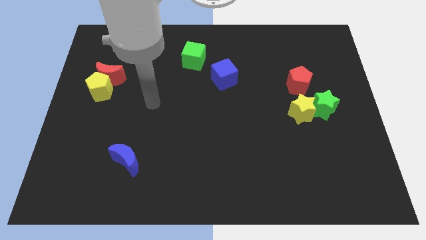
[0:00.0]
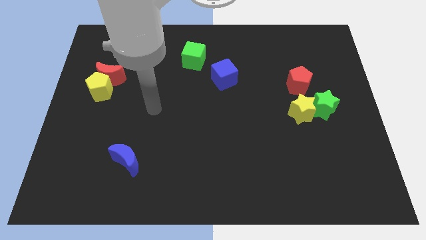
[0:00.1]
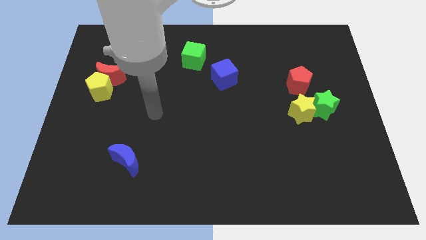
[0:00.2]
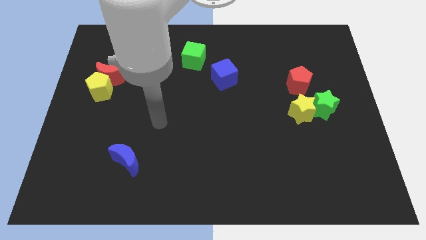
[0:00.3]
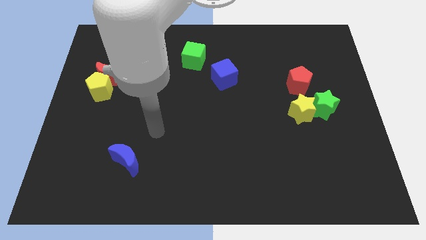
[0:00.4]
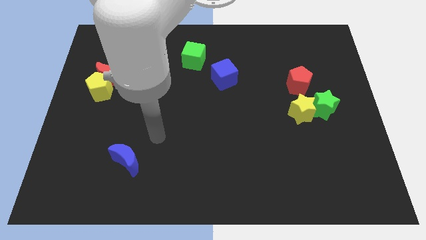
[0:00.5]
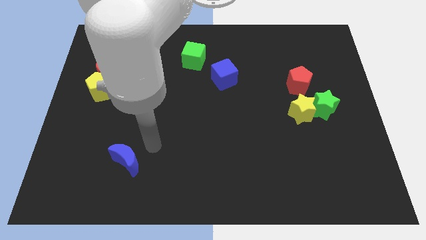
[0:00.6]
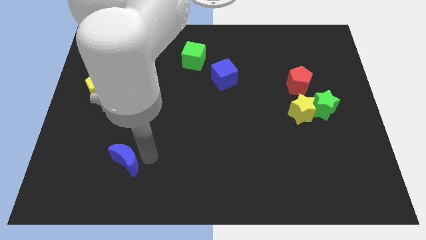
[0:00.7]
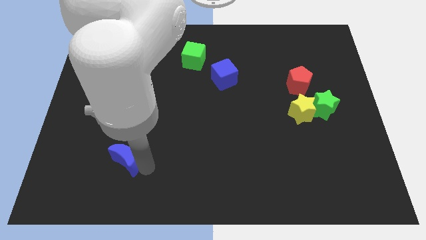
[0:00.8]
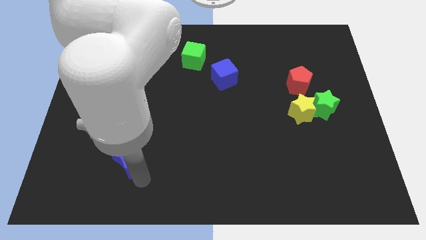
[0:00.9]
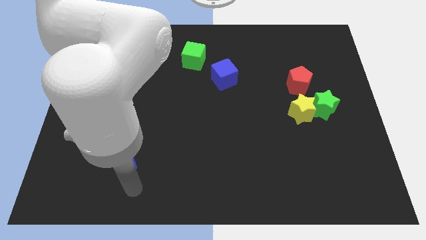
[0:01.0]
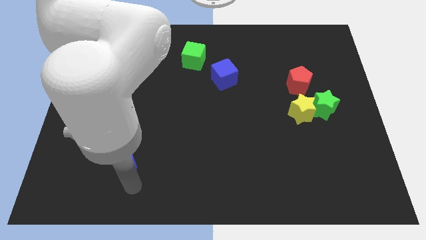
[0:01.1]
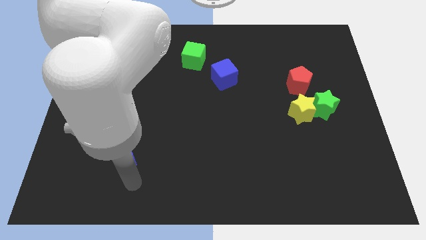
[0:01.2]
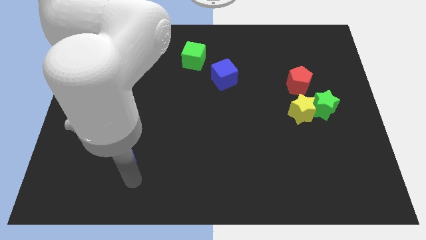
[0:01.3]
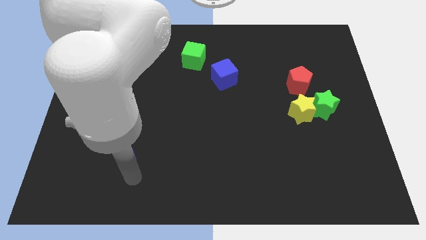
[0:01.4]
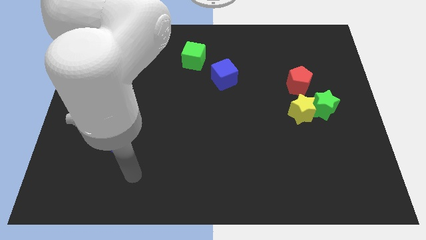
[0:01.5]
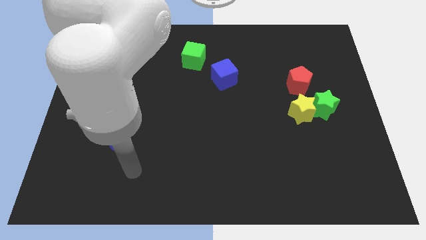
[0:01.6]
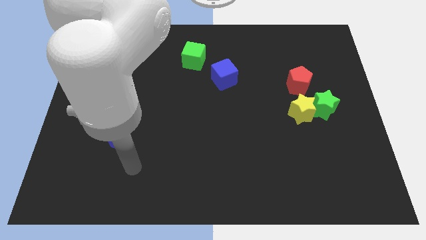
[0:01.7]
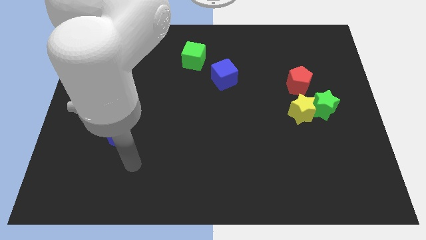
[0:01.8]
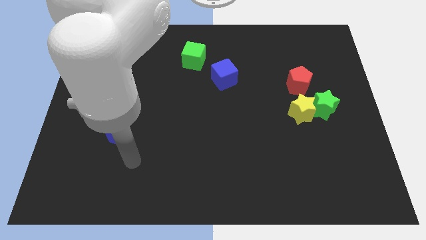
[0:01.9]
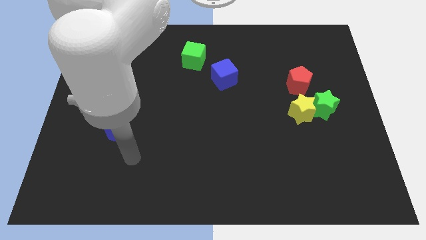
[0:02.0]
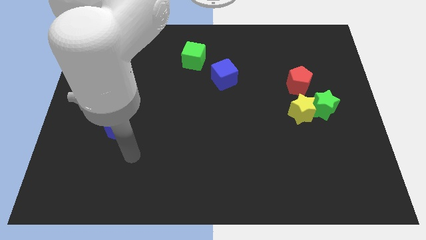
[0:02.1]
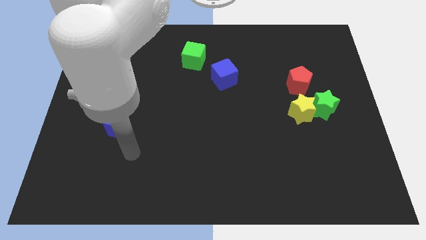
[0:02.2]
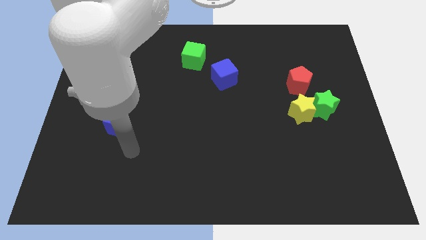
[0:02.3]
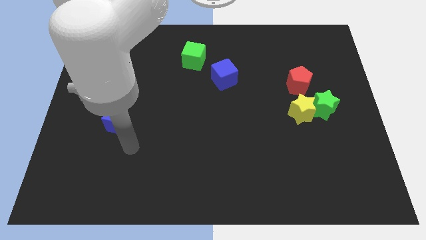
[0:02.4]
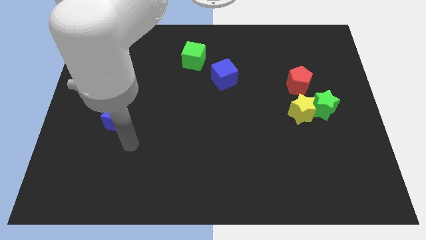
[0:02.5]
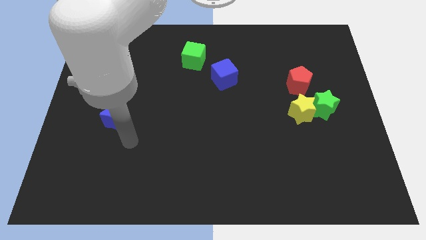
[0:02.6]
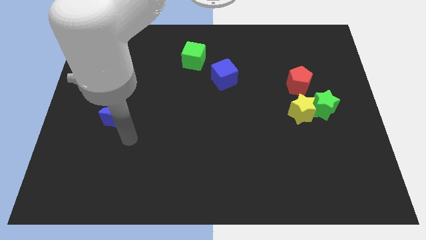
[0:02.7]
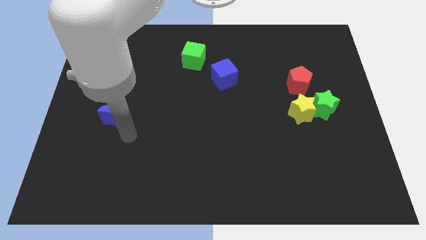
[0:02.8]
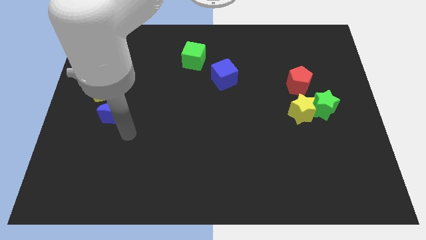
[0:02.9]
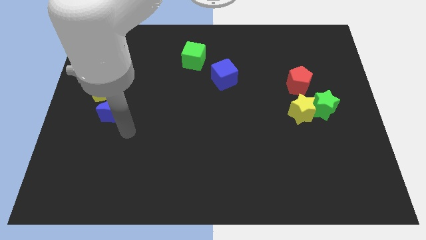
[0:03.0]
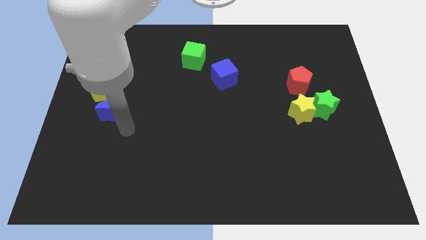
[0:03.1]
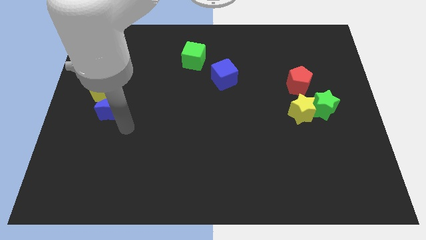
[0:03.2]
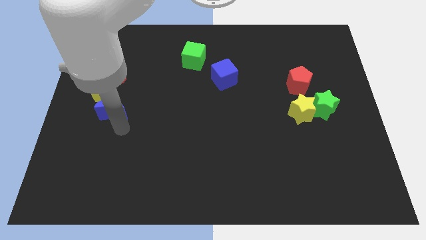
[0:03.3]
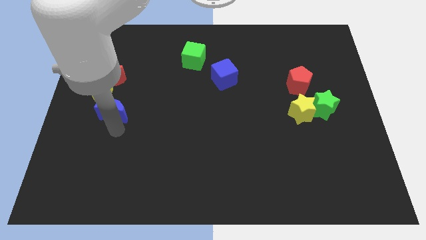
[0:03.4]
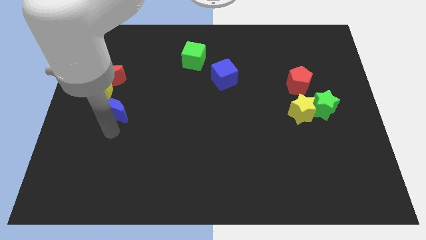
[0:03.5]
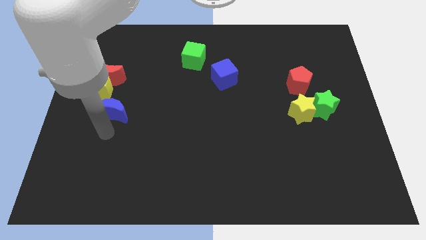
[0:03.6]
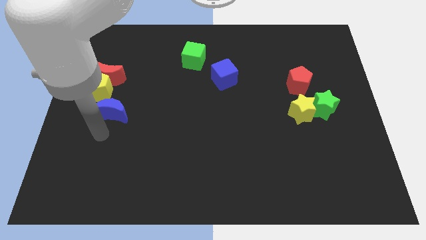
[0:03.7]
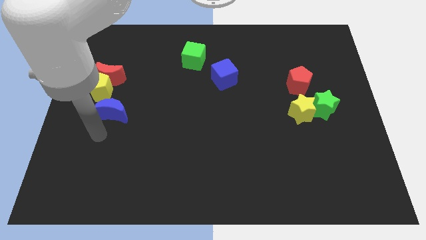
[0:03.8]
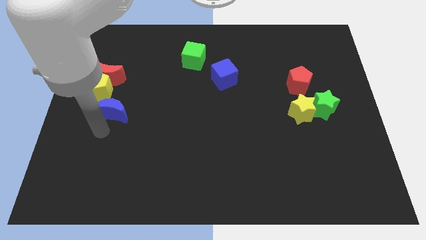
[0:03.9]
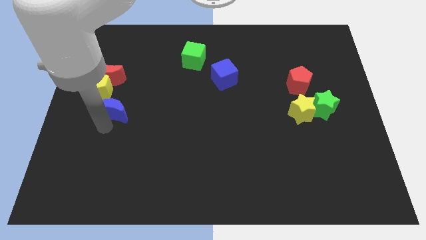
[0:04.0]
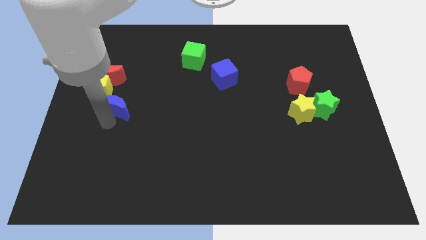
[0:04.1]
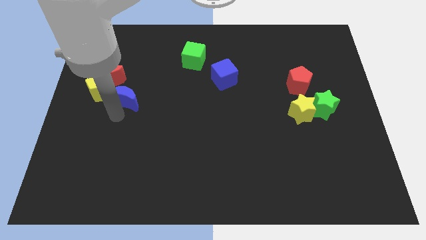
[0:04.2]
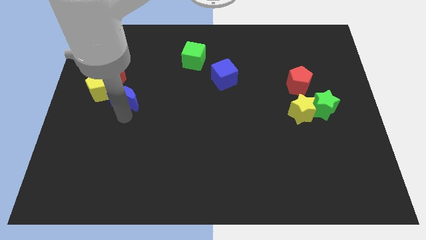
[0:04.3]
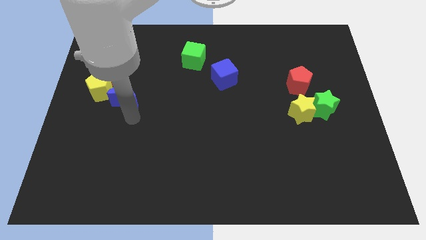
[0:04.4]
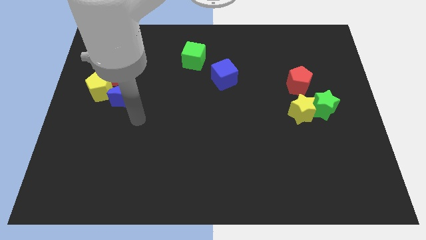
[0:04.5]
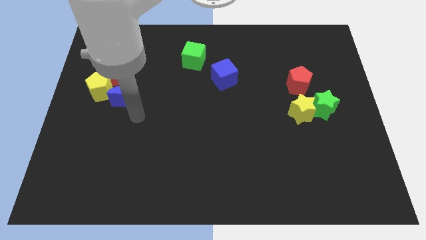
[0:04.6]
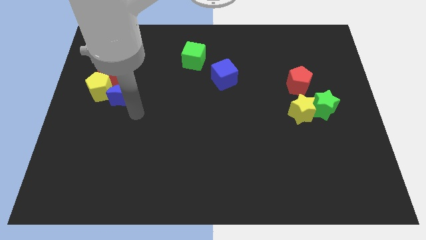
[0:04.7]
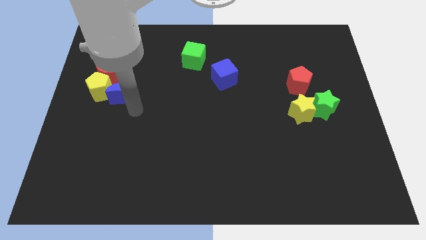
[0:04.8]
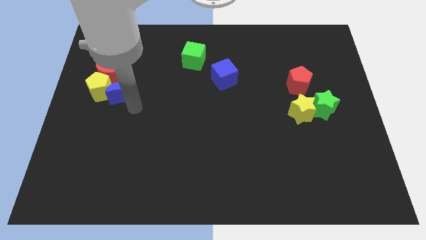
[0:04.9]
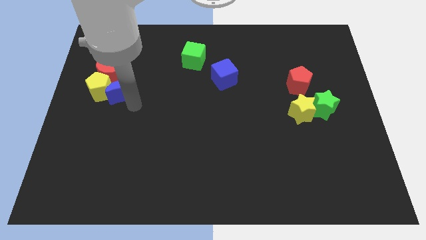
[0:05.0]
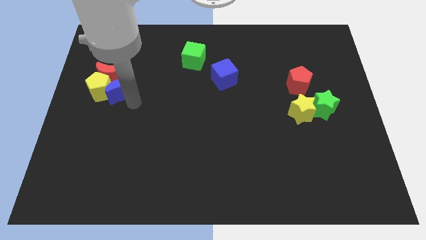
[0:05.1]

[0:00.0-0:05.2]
slide the blue moon to the red moon

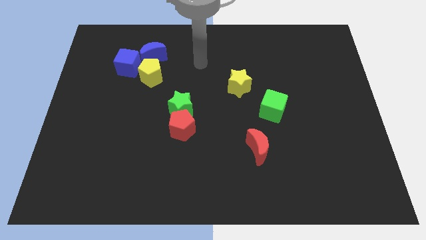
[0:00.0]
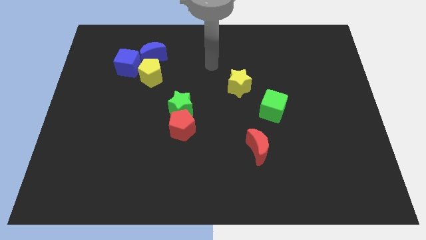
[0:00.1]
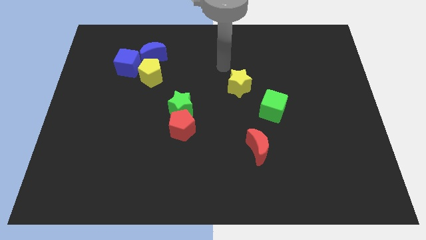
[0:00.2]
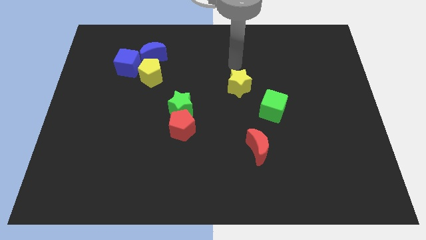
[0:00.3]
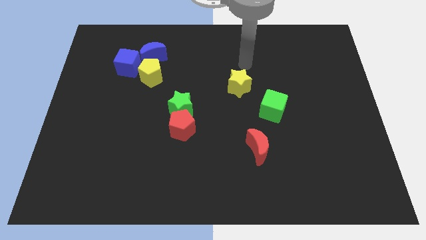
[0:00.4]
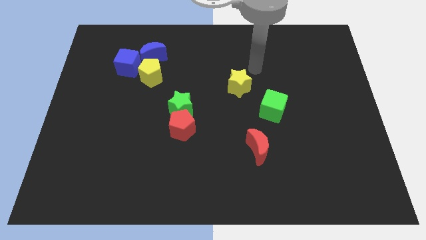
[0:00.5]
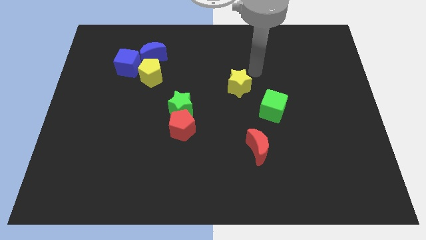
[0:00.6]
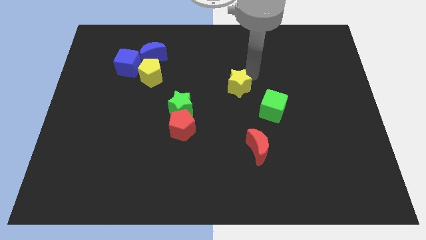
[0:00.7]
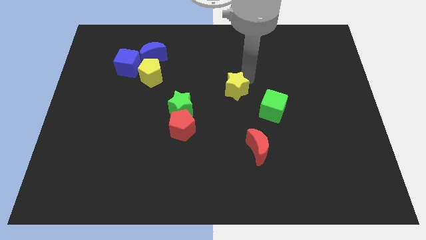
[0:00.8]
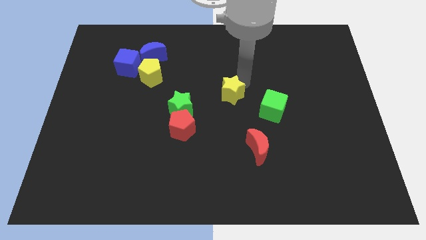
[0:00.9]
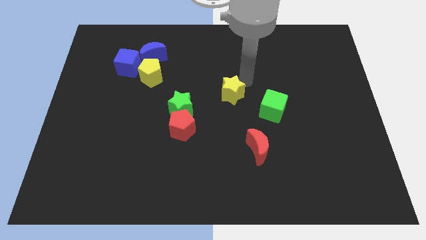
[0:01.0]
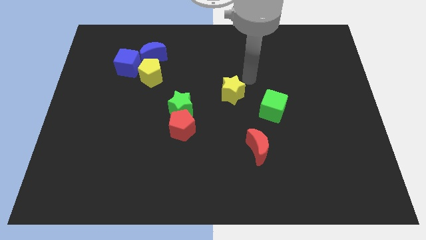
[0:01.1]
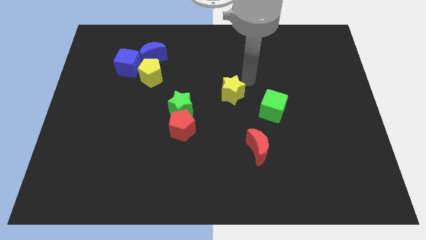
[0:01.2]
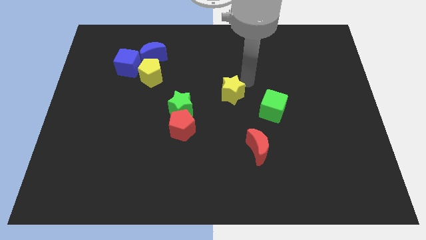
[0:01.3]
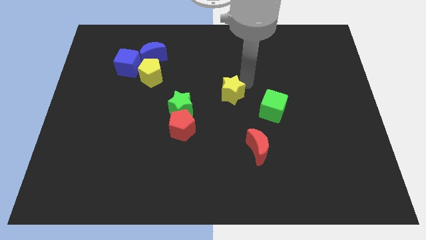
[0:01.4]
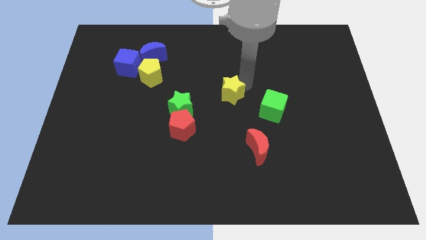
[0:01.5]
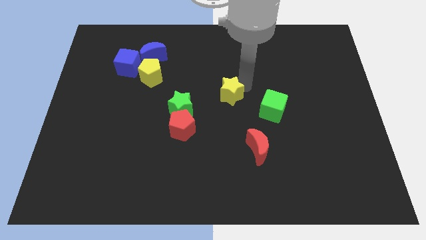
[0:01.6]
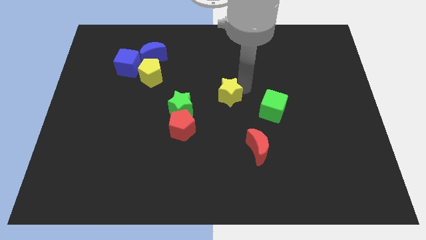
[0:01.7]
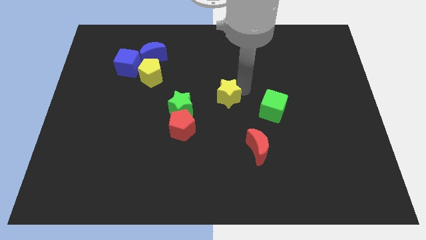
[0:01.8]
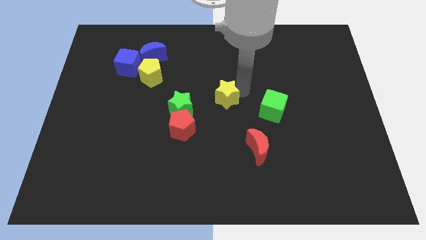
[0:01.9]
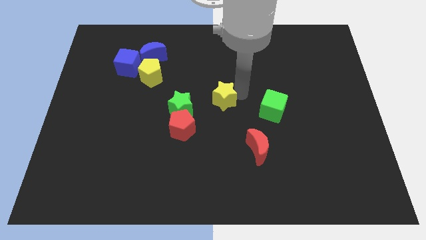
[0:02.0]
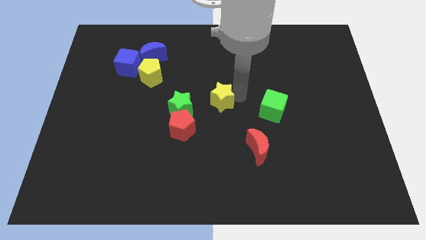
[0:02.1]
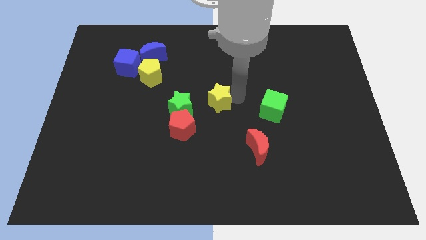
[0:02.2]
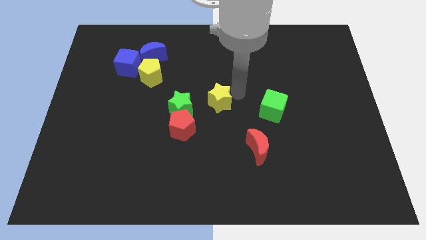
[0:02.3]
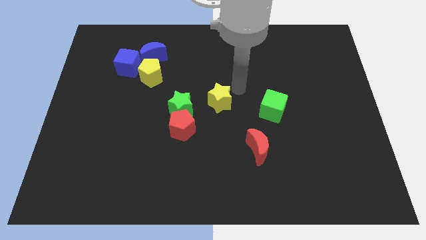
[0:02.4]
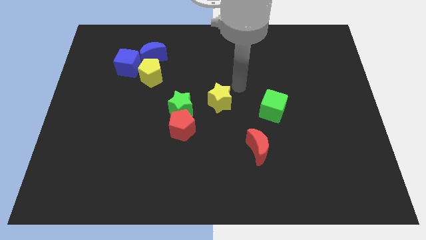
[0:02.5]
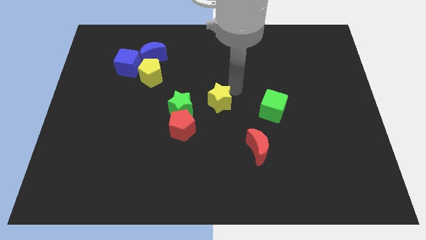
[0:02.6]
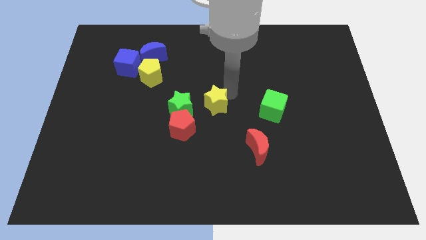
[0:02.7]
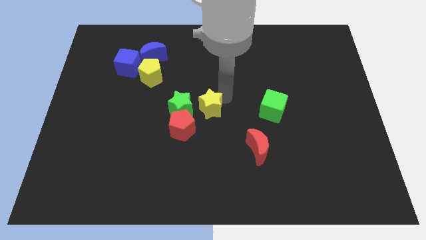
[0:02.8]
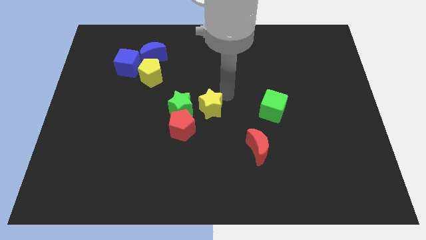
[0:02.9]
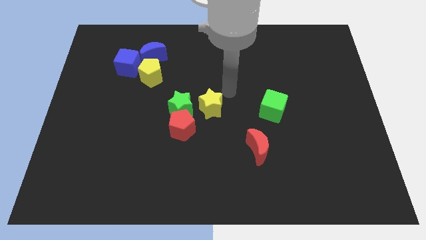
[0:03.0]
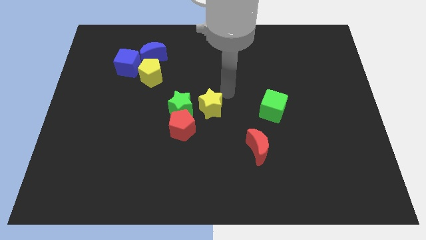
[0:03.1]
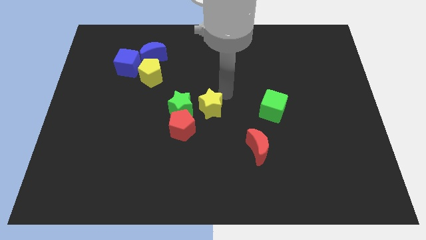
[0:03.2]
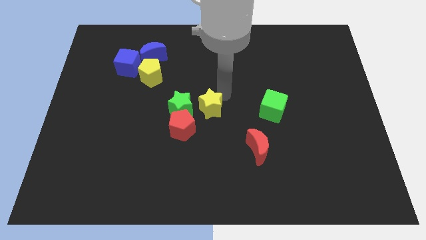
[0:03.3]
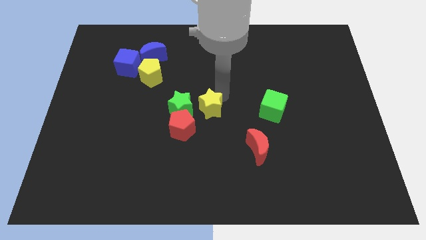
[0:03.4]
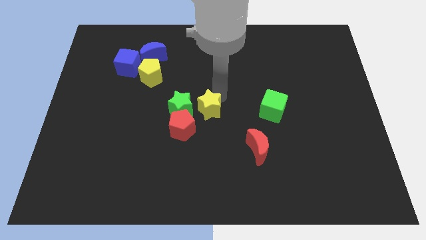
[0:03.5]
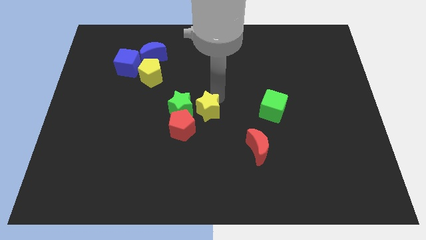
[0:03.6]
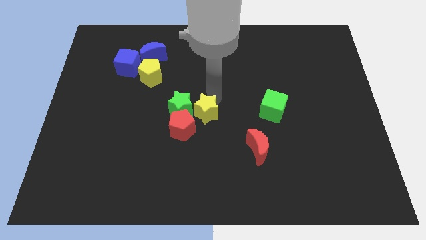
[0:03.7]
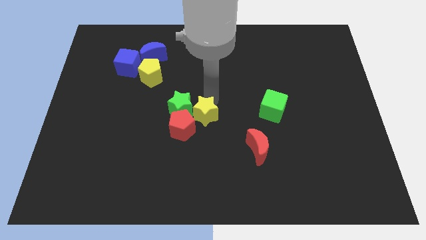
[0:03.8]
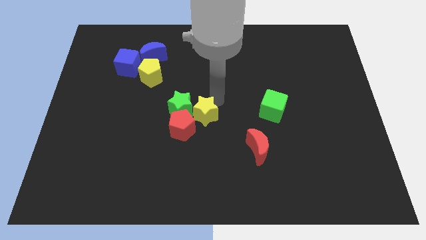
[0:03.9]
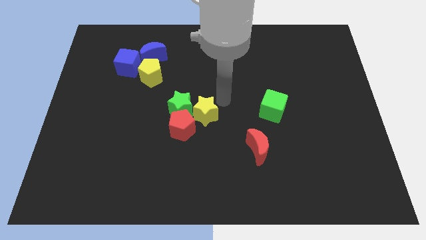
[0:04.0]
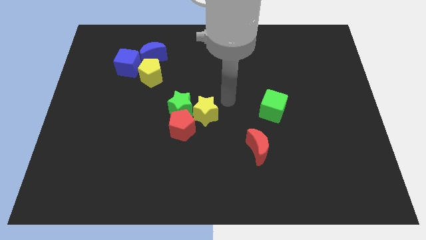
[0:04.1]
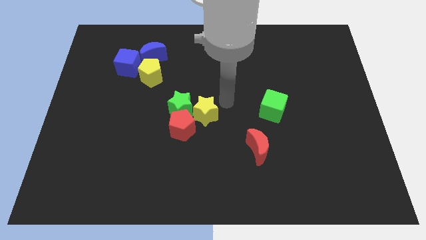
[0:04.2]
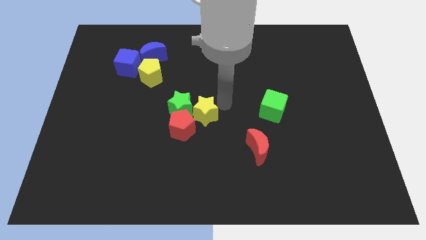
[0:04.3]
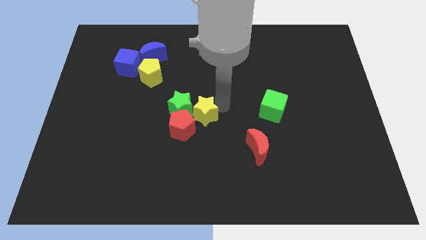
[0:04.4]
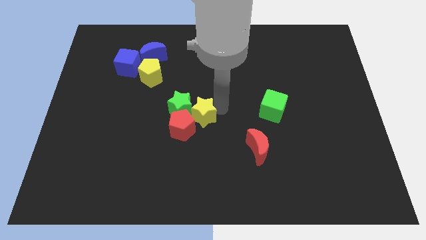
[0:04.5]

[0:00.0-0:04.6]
push the yellow star close to the red pentagon
